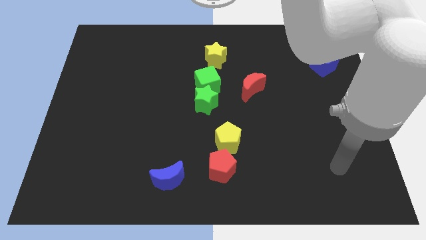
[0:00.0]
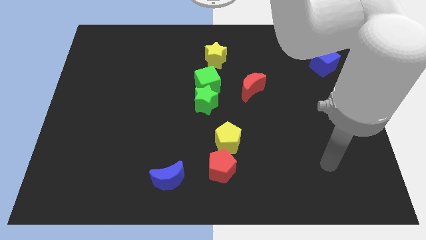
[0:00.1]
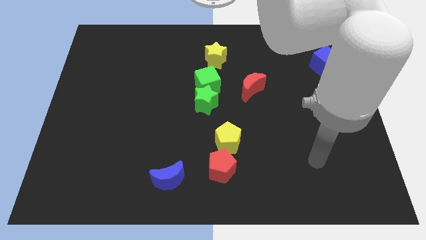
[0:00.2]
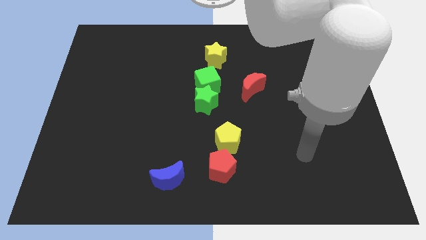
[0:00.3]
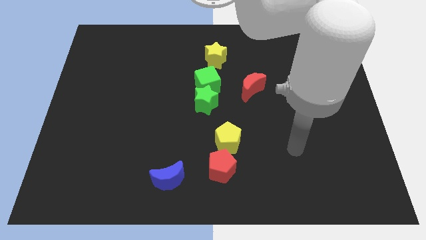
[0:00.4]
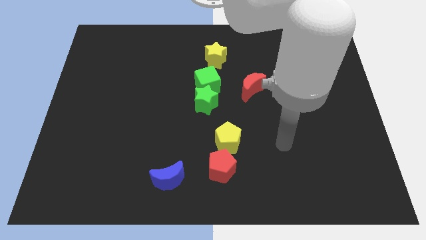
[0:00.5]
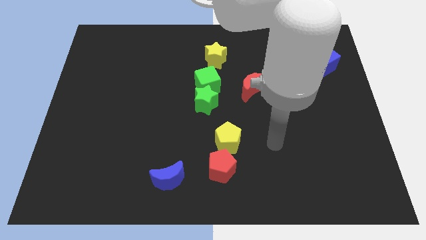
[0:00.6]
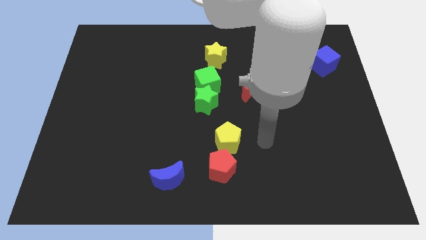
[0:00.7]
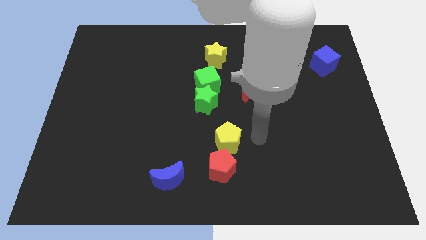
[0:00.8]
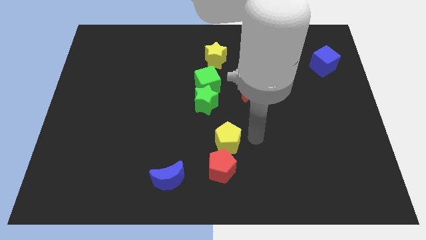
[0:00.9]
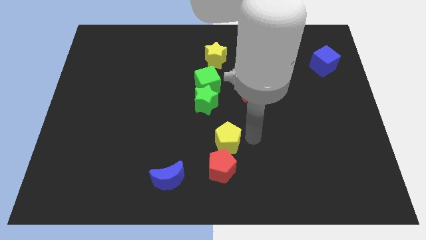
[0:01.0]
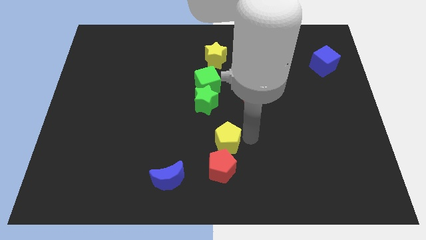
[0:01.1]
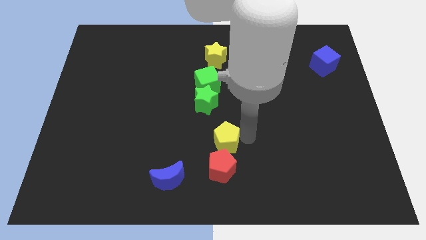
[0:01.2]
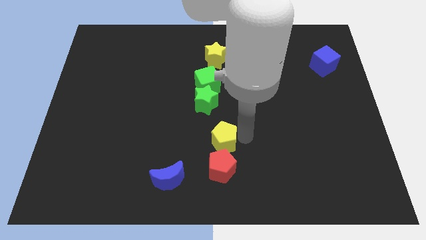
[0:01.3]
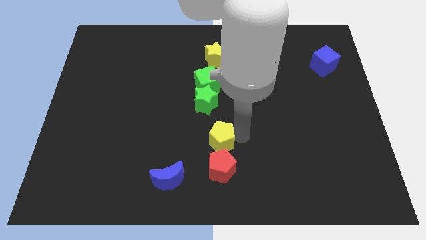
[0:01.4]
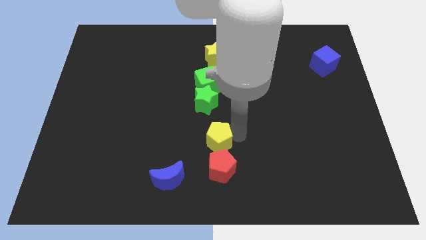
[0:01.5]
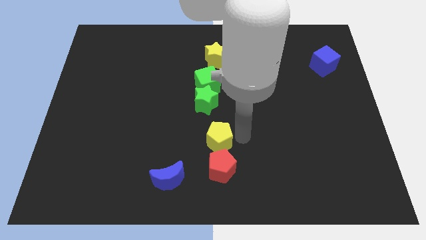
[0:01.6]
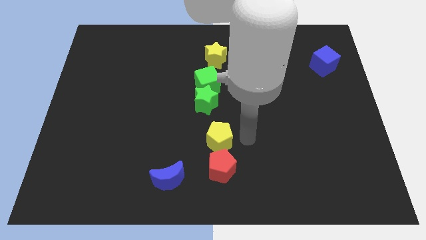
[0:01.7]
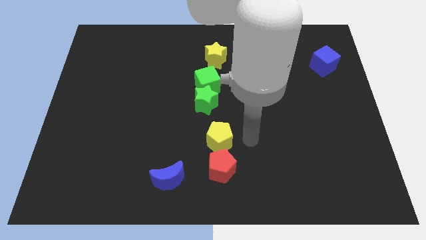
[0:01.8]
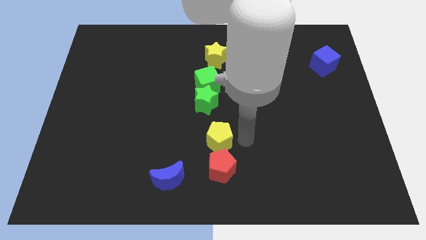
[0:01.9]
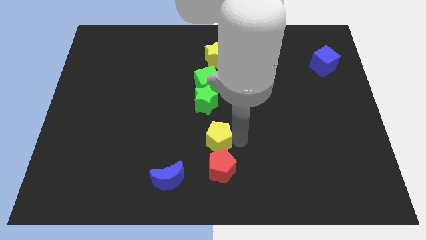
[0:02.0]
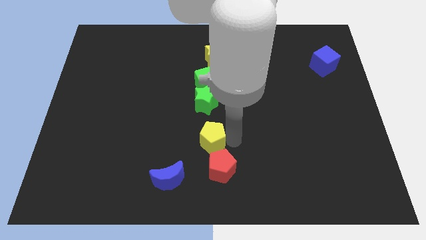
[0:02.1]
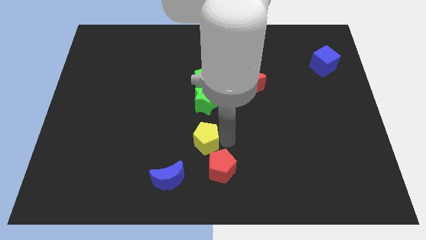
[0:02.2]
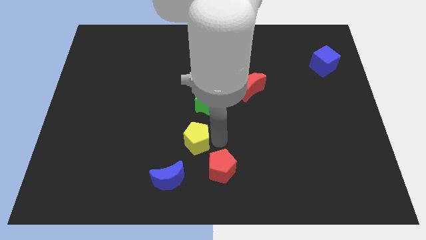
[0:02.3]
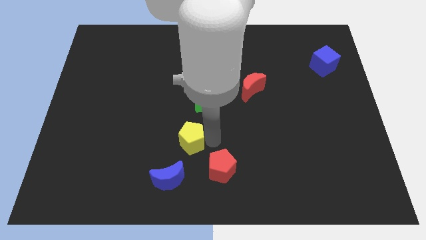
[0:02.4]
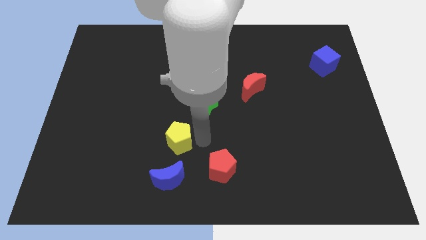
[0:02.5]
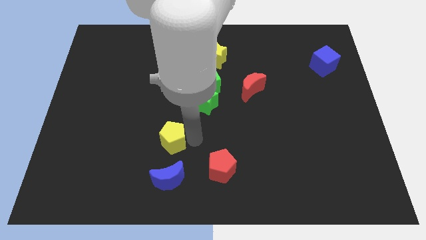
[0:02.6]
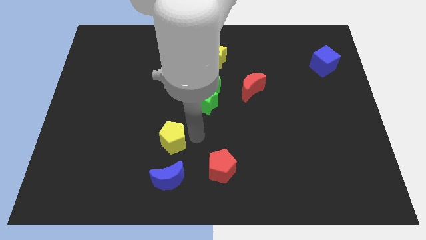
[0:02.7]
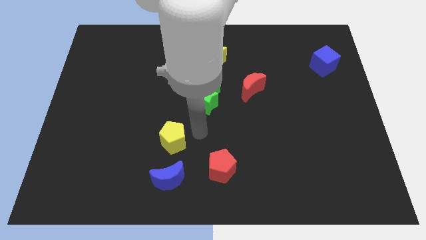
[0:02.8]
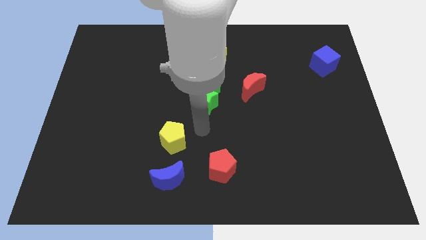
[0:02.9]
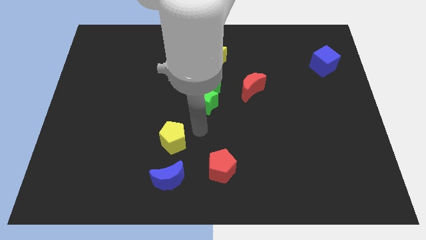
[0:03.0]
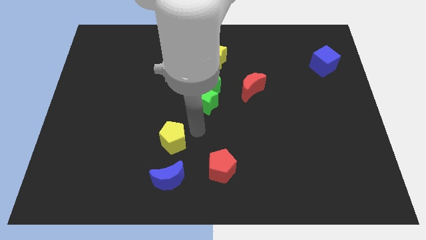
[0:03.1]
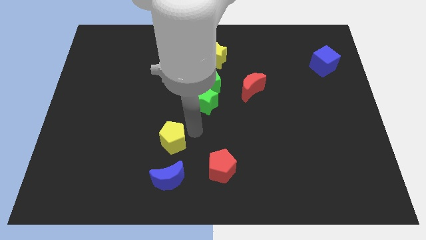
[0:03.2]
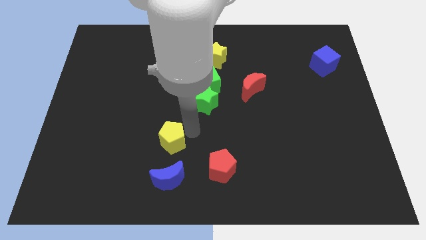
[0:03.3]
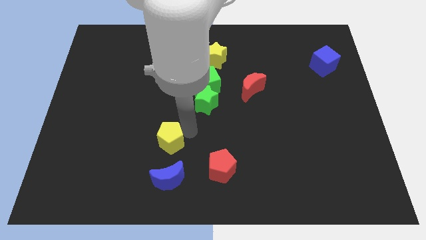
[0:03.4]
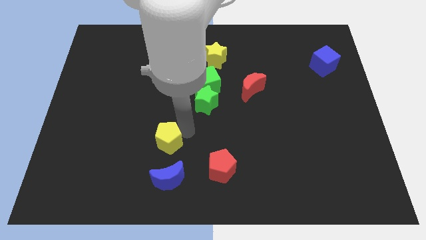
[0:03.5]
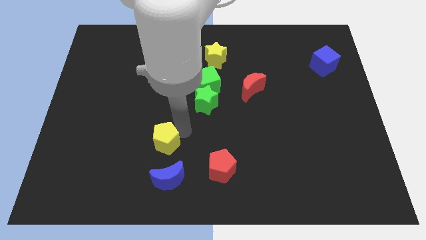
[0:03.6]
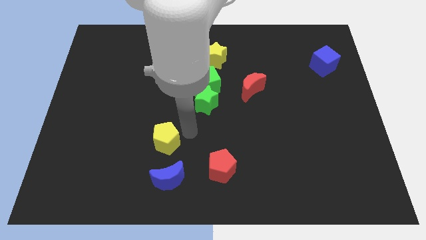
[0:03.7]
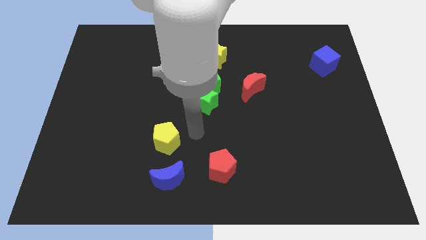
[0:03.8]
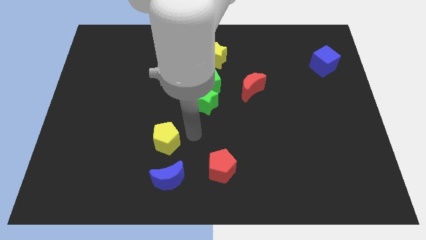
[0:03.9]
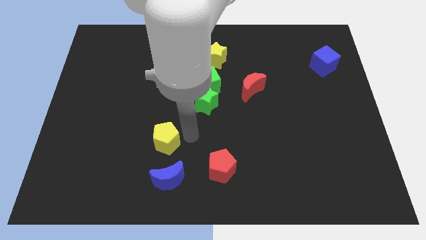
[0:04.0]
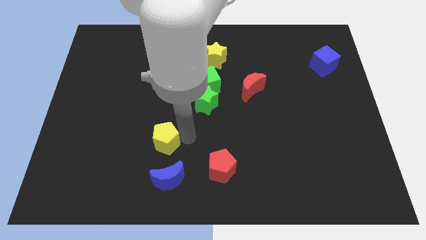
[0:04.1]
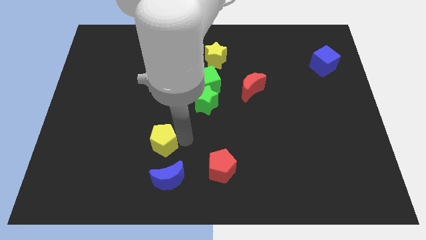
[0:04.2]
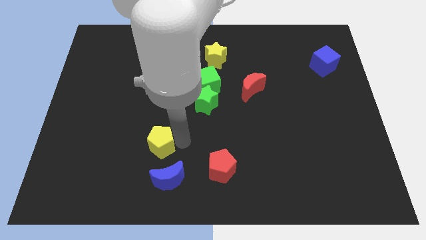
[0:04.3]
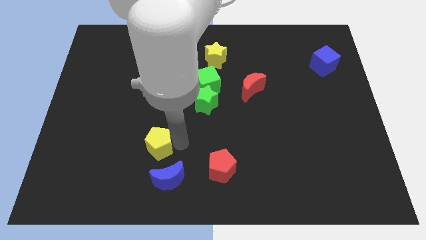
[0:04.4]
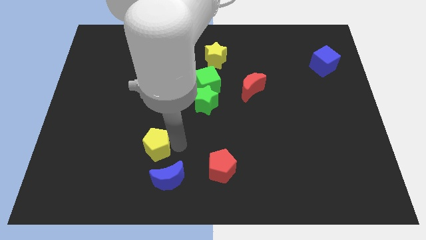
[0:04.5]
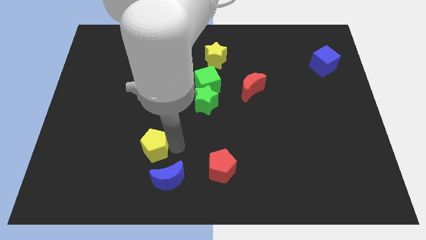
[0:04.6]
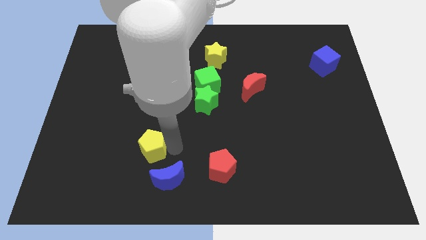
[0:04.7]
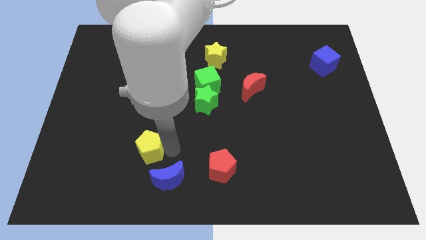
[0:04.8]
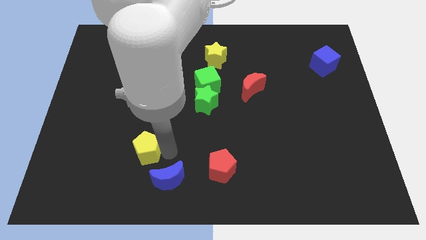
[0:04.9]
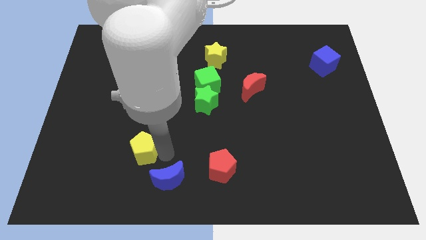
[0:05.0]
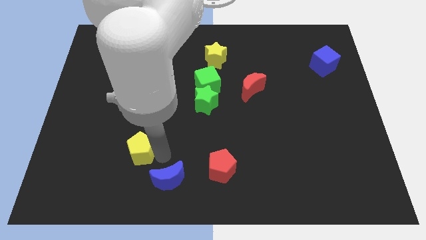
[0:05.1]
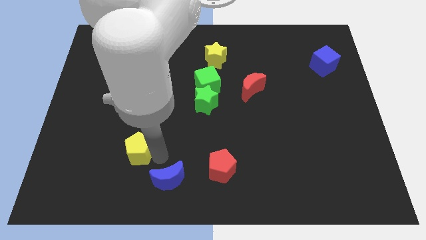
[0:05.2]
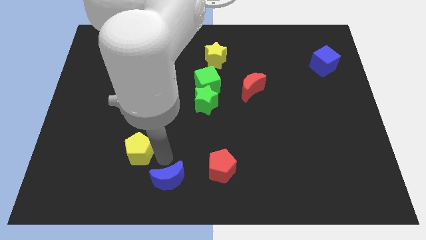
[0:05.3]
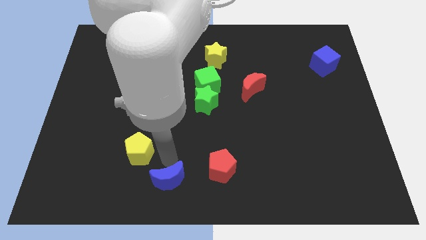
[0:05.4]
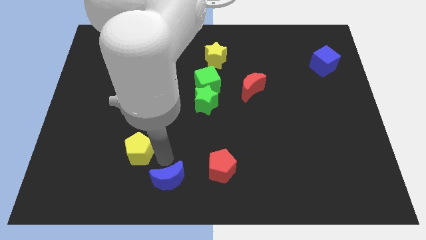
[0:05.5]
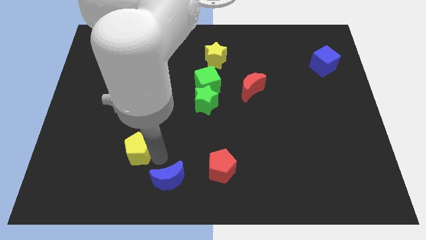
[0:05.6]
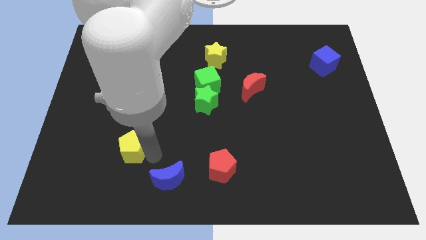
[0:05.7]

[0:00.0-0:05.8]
push the yellow pentagon left

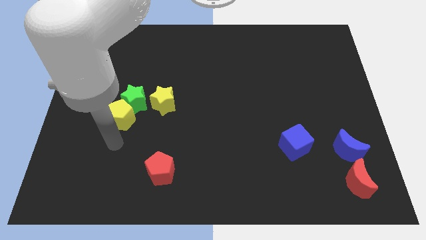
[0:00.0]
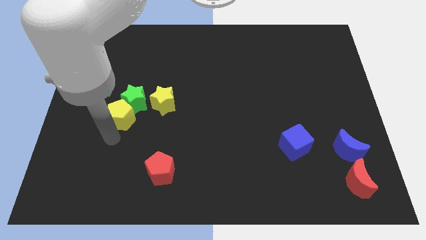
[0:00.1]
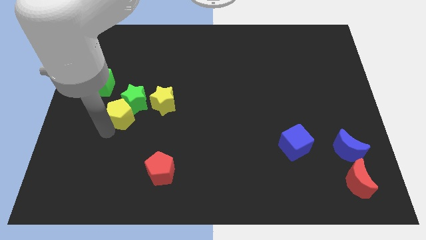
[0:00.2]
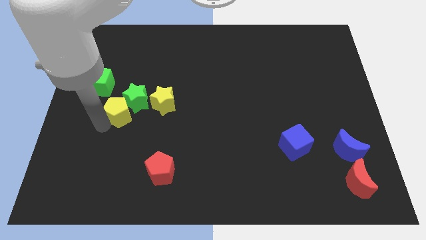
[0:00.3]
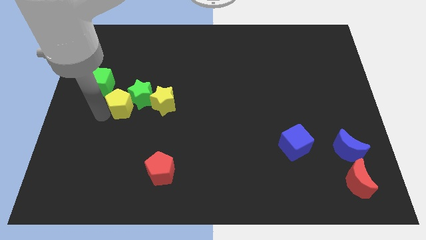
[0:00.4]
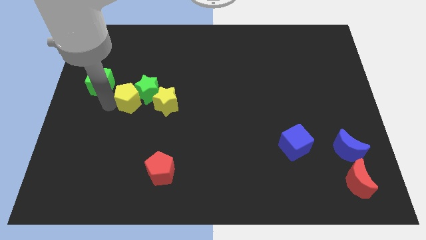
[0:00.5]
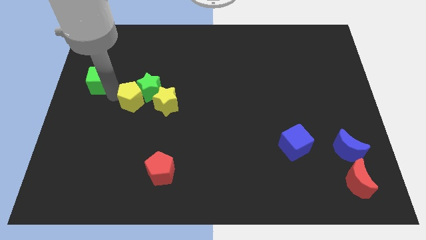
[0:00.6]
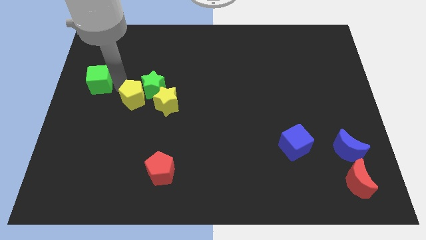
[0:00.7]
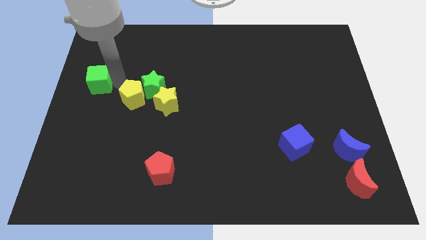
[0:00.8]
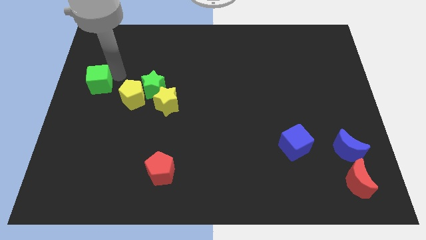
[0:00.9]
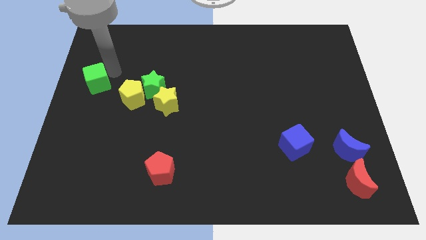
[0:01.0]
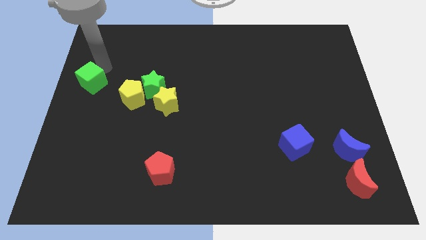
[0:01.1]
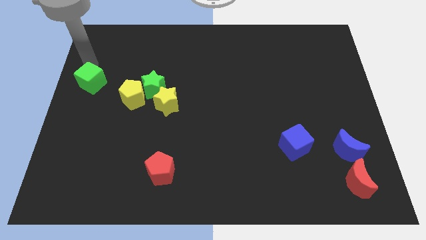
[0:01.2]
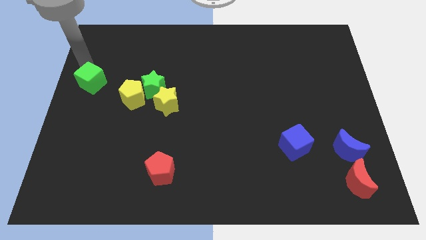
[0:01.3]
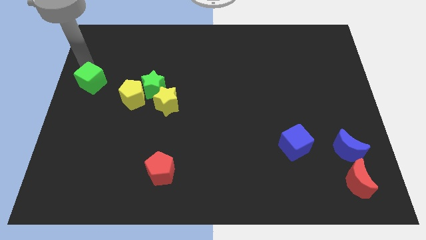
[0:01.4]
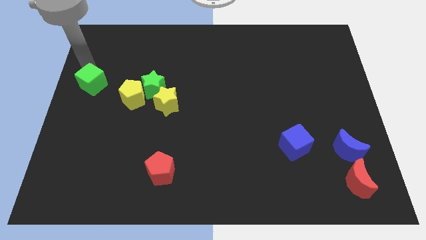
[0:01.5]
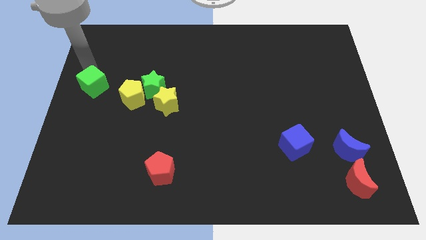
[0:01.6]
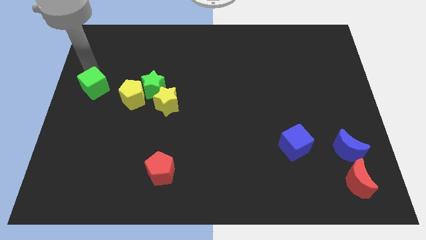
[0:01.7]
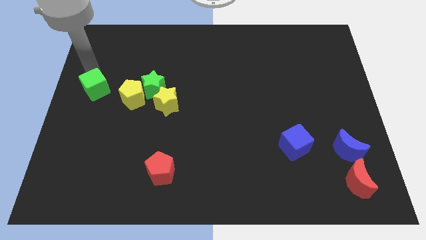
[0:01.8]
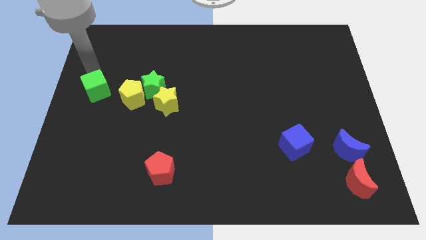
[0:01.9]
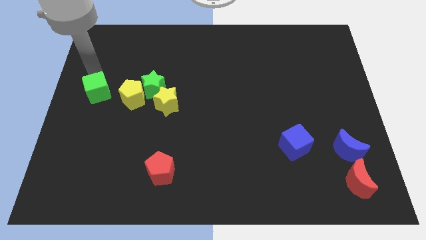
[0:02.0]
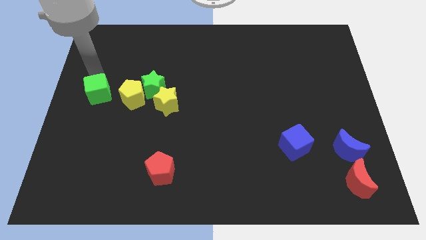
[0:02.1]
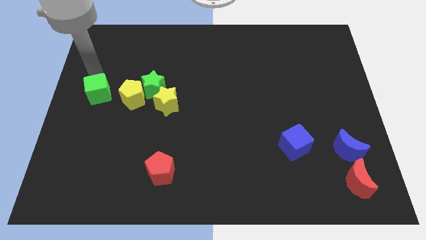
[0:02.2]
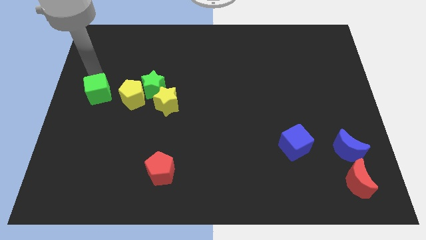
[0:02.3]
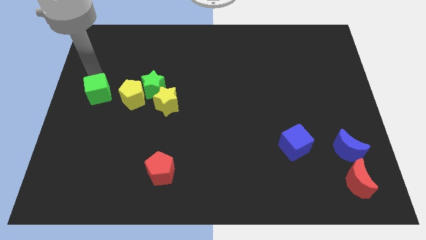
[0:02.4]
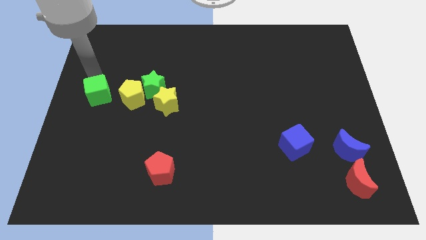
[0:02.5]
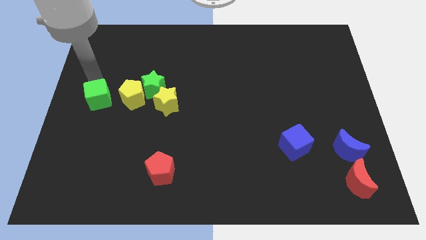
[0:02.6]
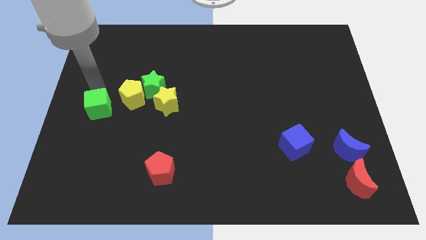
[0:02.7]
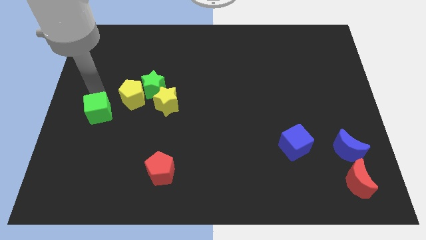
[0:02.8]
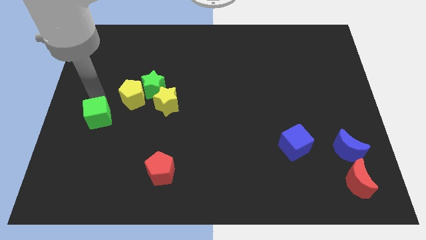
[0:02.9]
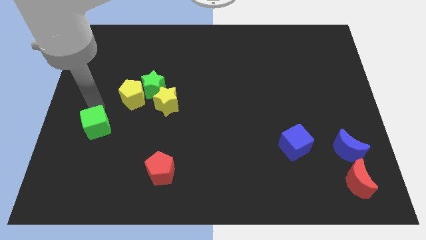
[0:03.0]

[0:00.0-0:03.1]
move the green cube down and to the right diagonally a little bit
